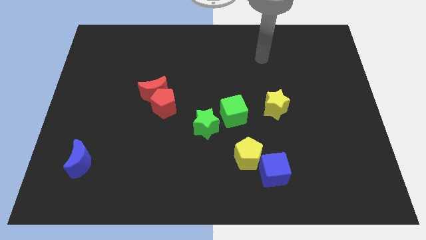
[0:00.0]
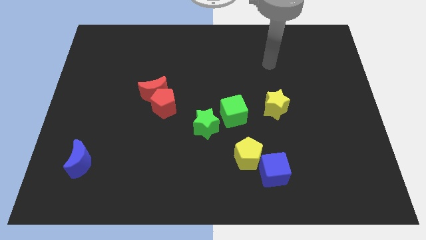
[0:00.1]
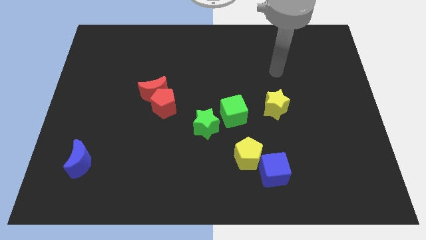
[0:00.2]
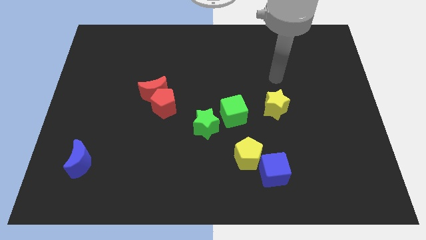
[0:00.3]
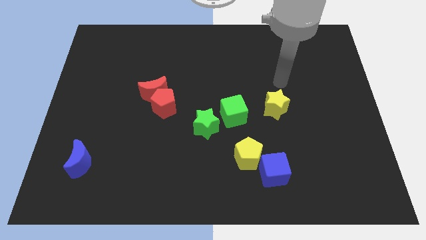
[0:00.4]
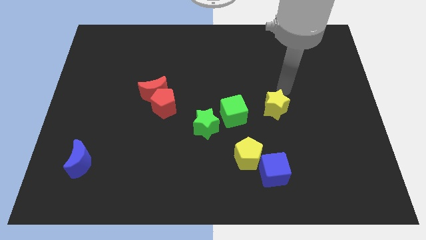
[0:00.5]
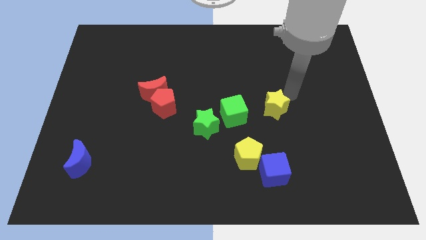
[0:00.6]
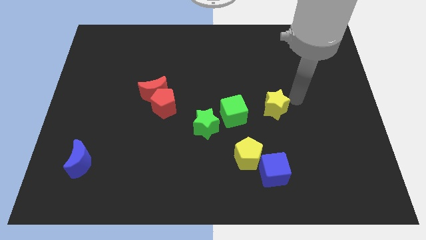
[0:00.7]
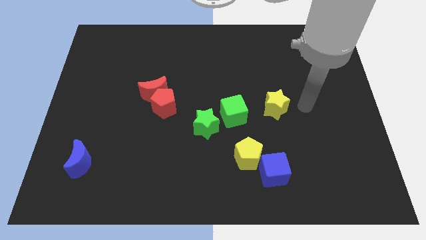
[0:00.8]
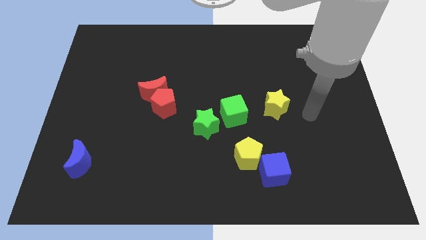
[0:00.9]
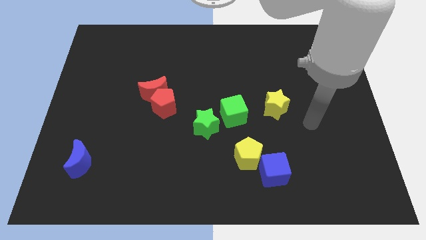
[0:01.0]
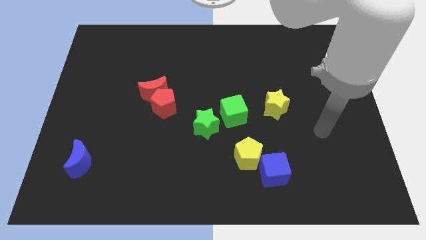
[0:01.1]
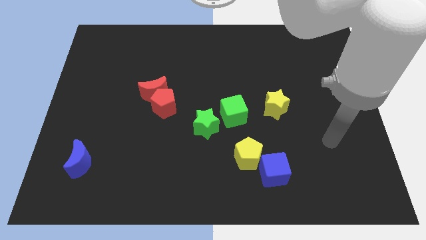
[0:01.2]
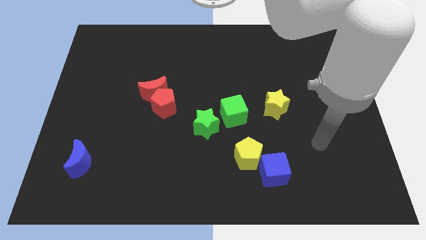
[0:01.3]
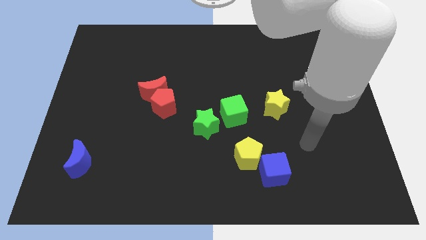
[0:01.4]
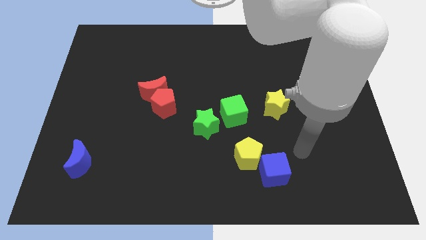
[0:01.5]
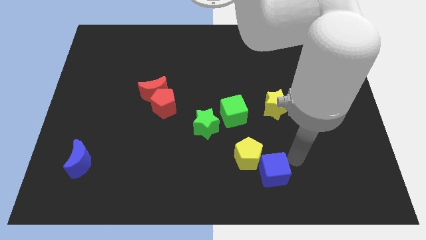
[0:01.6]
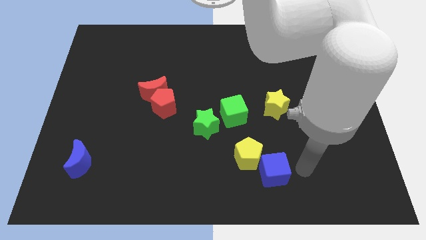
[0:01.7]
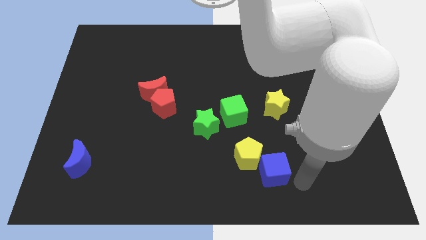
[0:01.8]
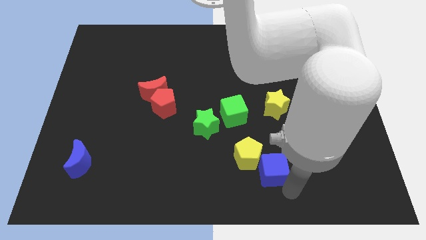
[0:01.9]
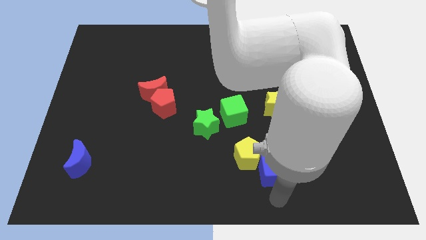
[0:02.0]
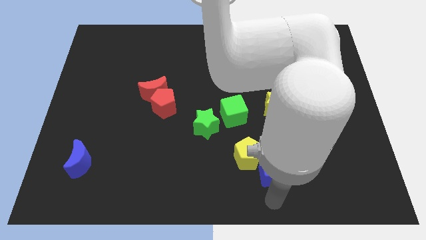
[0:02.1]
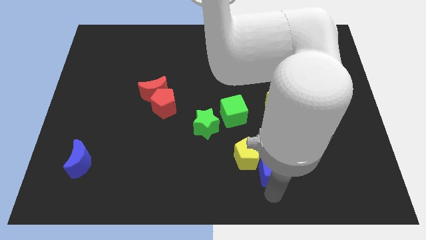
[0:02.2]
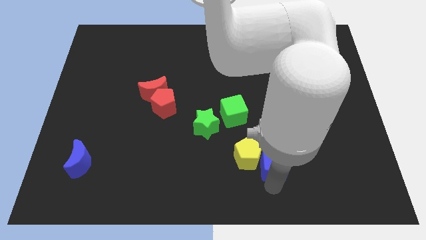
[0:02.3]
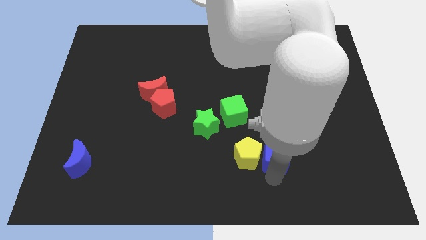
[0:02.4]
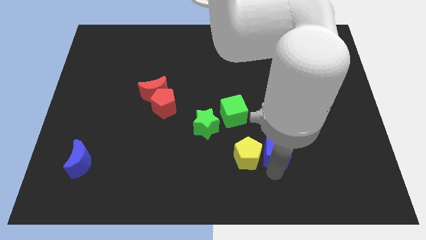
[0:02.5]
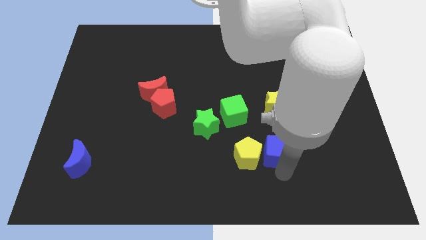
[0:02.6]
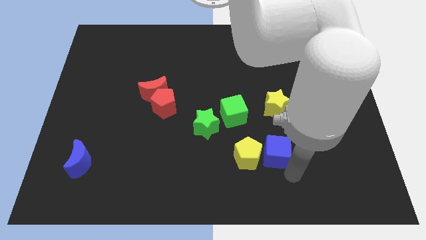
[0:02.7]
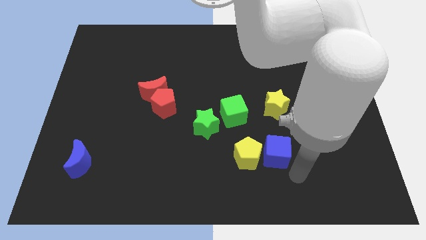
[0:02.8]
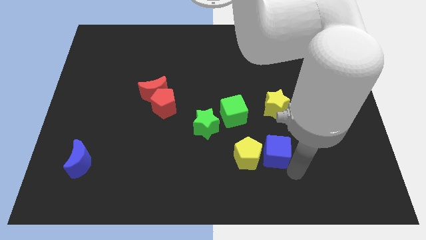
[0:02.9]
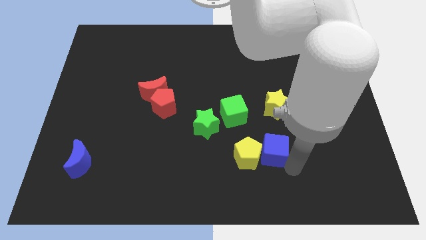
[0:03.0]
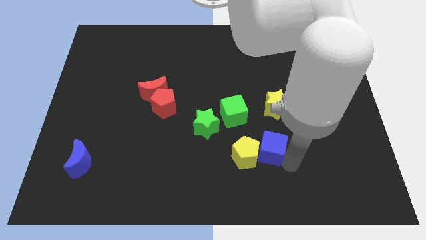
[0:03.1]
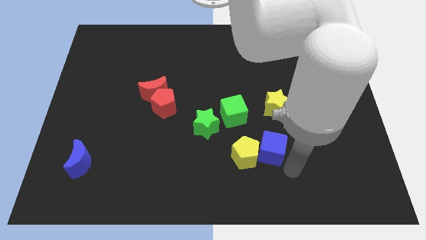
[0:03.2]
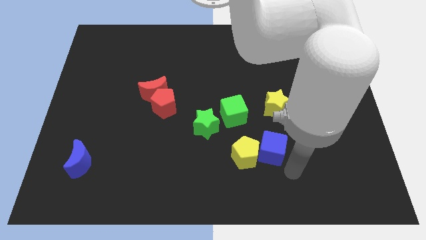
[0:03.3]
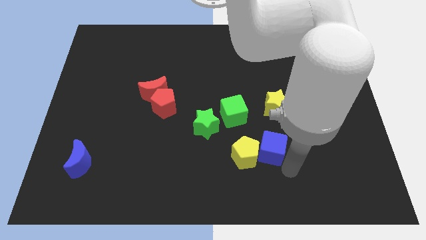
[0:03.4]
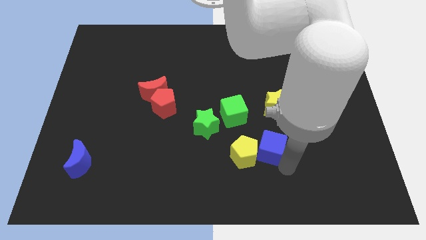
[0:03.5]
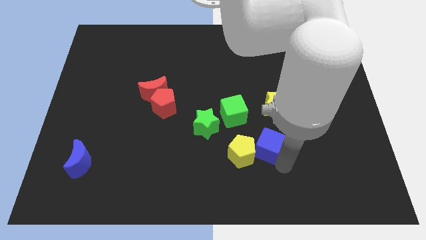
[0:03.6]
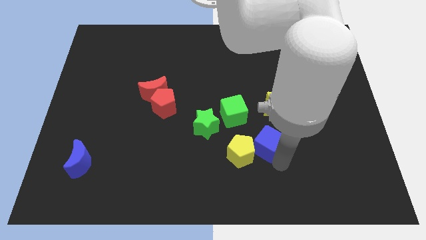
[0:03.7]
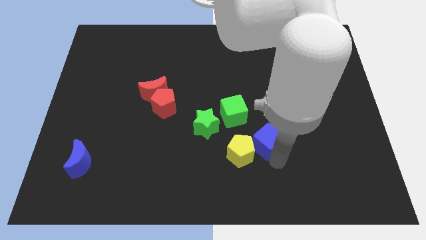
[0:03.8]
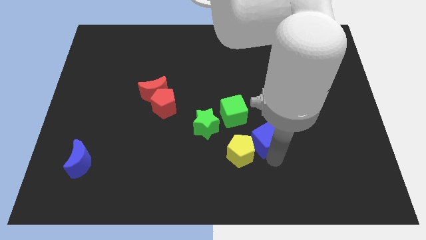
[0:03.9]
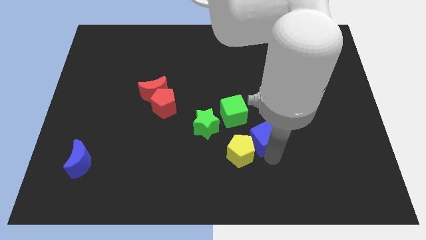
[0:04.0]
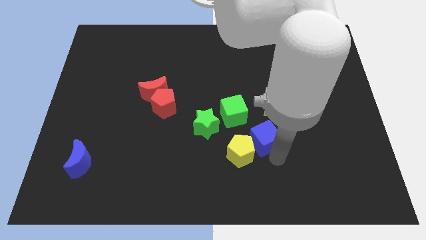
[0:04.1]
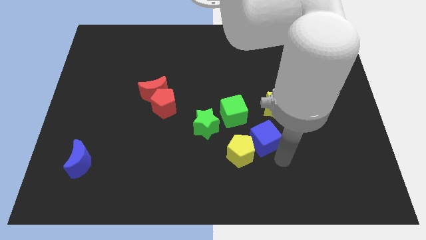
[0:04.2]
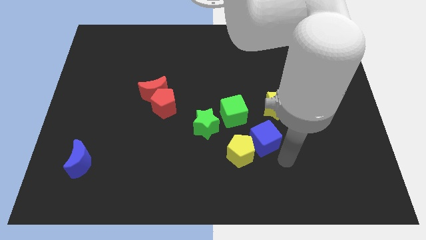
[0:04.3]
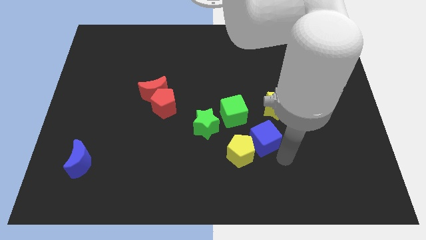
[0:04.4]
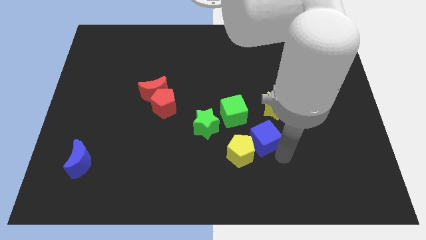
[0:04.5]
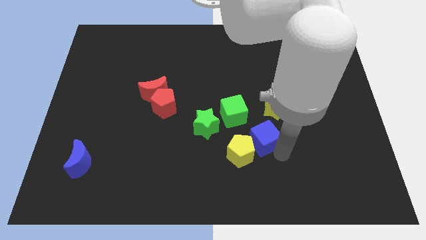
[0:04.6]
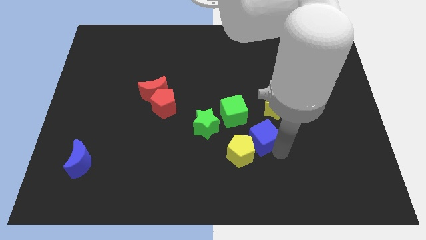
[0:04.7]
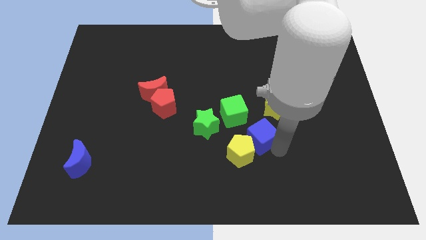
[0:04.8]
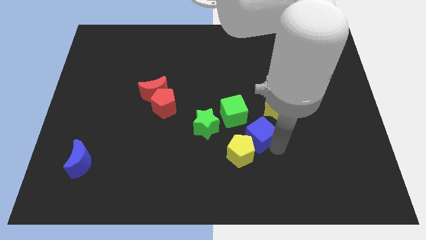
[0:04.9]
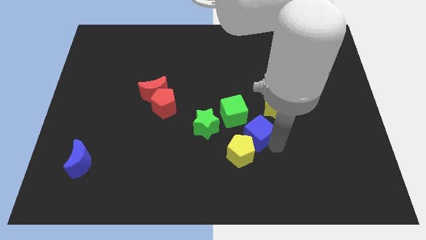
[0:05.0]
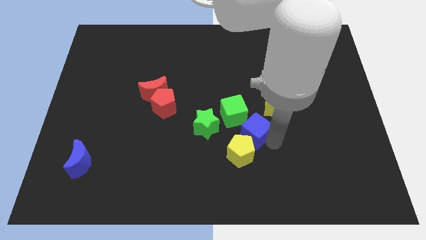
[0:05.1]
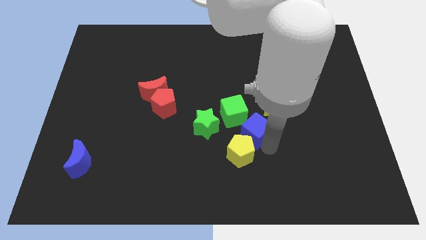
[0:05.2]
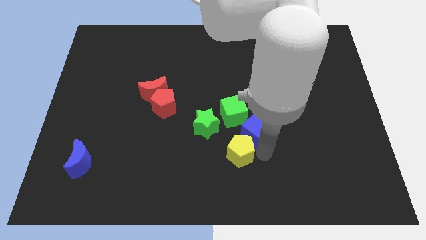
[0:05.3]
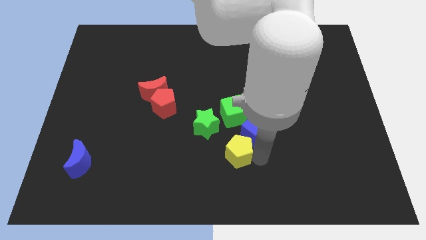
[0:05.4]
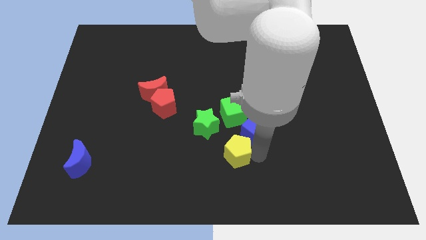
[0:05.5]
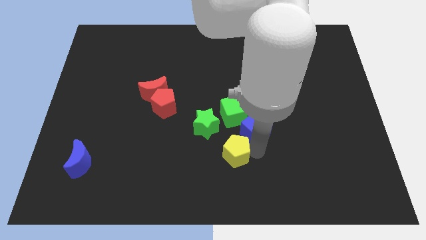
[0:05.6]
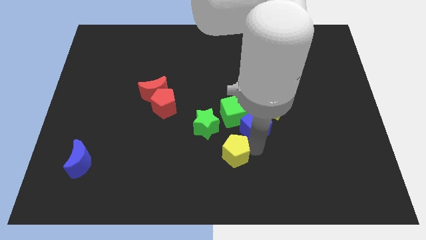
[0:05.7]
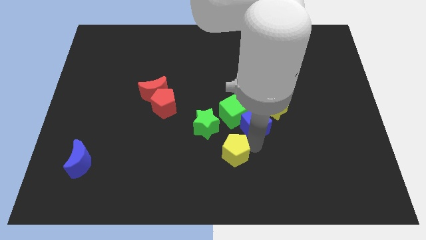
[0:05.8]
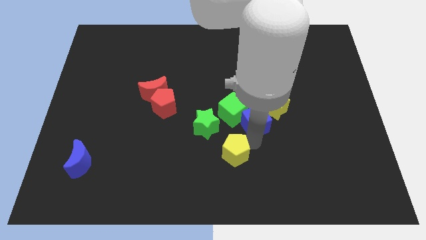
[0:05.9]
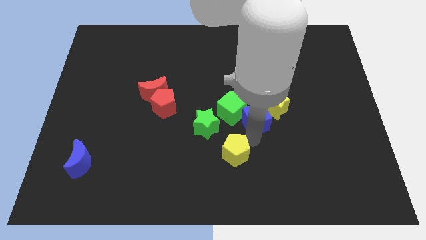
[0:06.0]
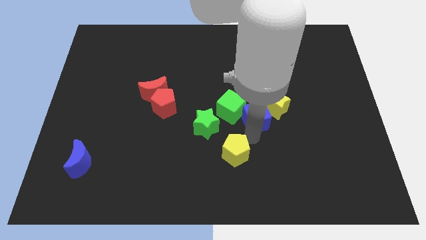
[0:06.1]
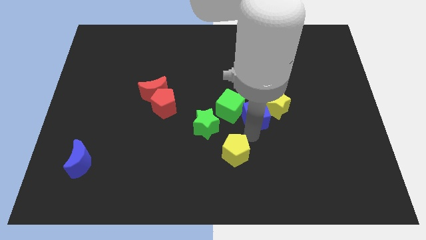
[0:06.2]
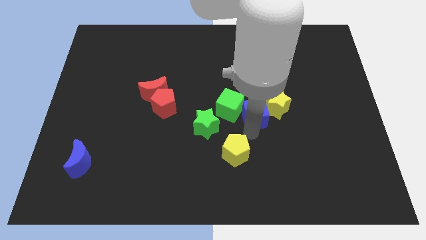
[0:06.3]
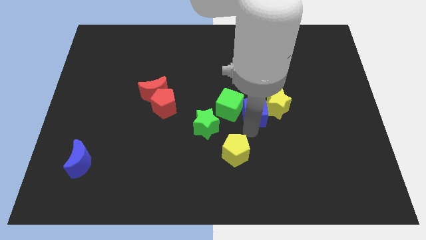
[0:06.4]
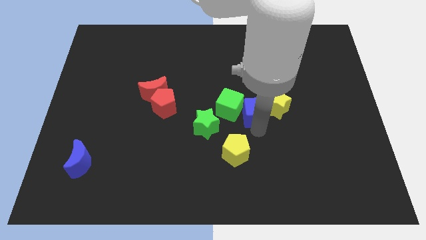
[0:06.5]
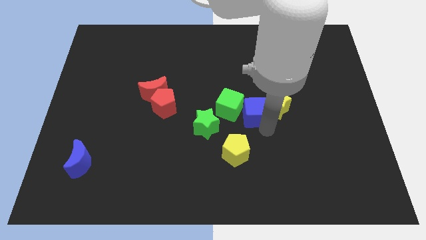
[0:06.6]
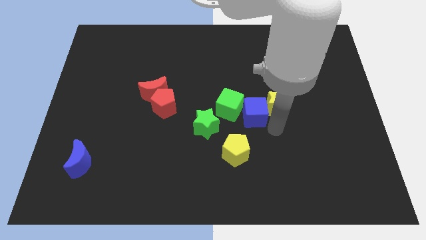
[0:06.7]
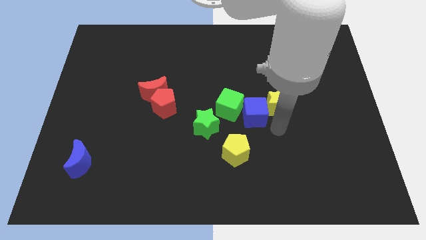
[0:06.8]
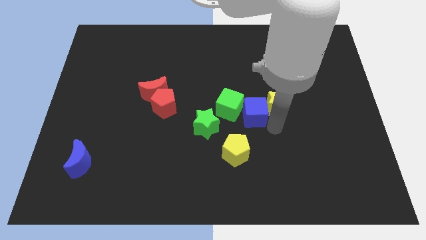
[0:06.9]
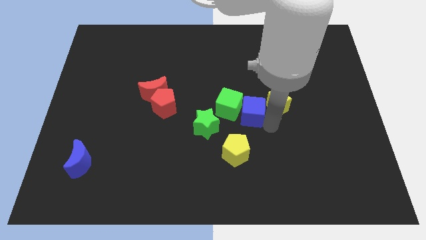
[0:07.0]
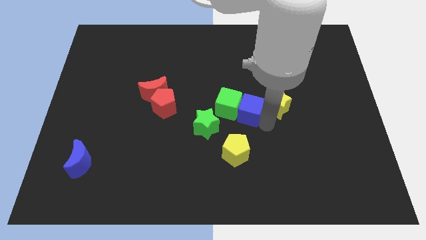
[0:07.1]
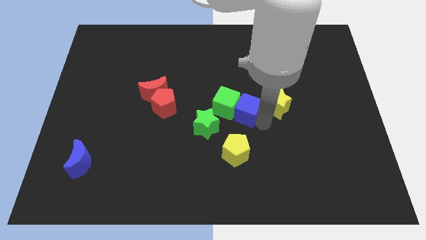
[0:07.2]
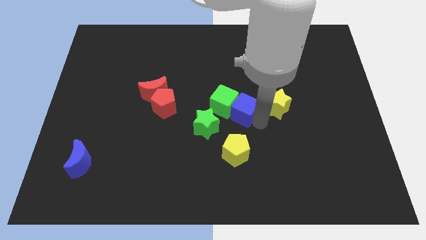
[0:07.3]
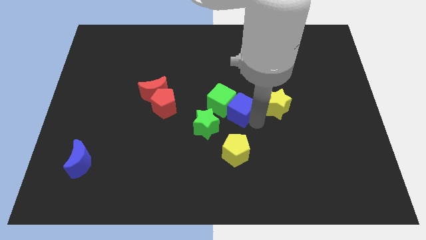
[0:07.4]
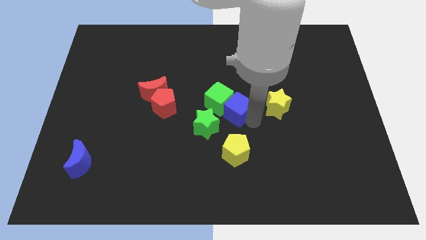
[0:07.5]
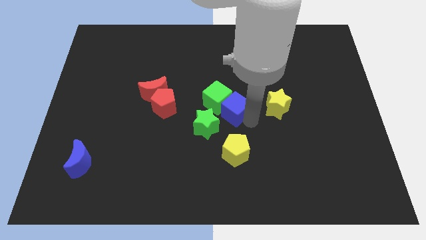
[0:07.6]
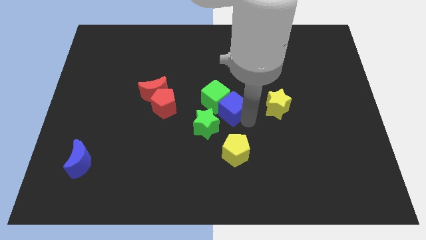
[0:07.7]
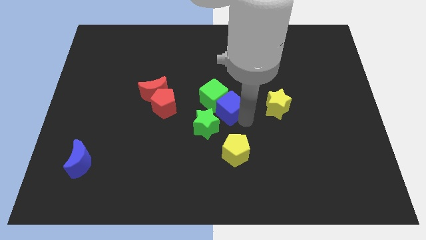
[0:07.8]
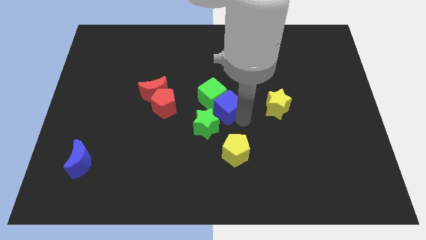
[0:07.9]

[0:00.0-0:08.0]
put the blue cube above the green star
